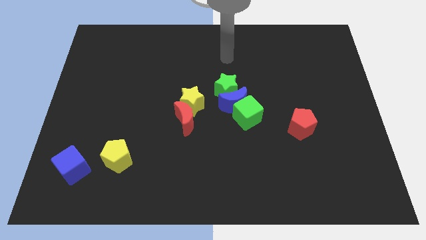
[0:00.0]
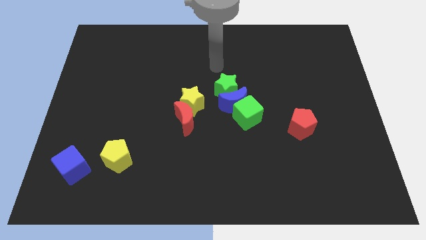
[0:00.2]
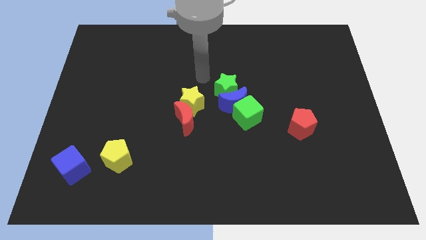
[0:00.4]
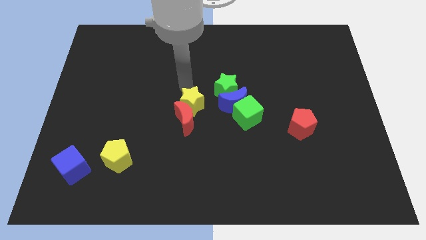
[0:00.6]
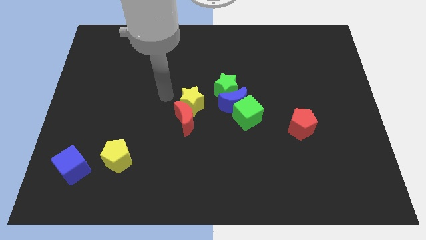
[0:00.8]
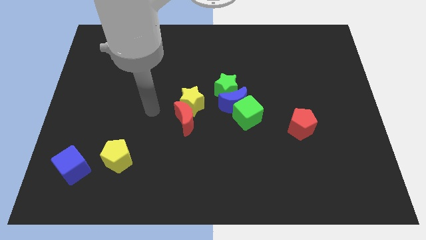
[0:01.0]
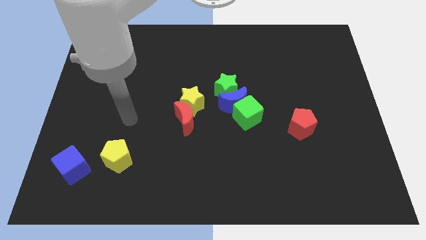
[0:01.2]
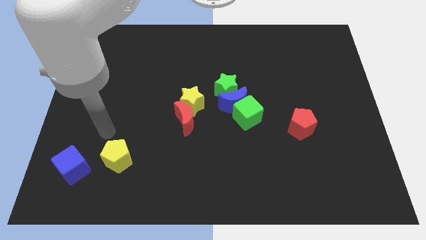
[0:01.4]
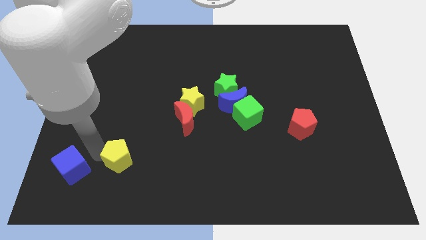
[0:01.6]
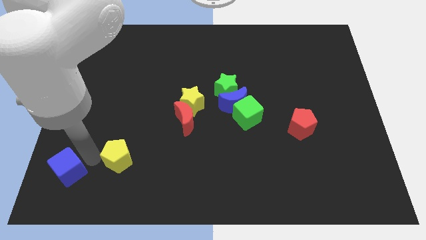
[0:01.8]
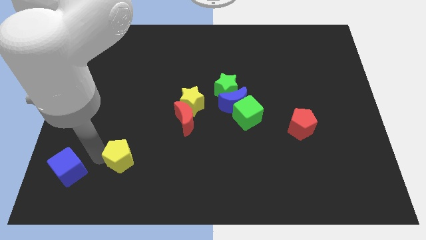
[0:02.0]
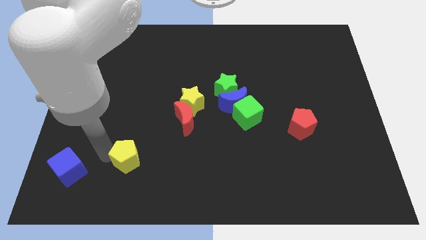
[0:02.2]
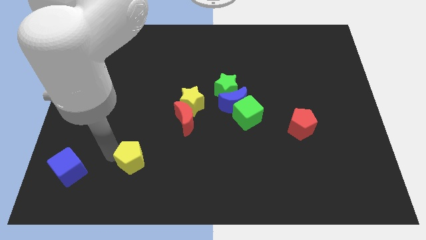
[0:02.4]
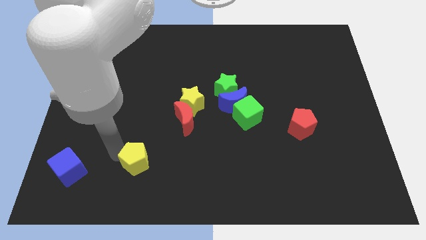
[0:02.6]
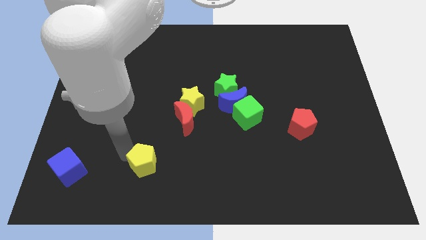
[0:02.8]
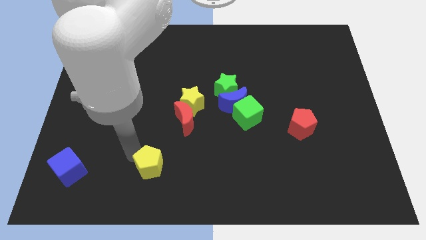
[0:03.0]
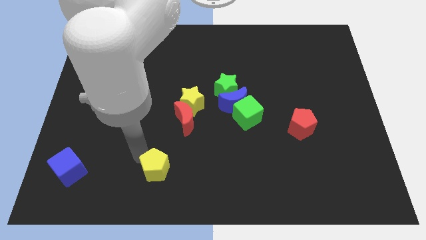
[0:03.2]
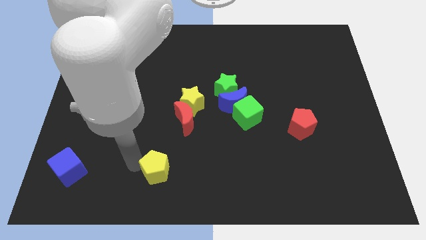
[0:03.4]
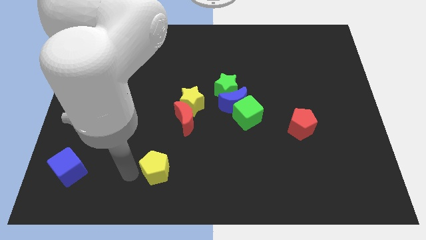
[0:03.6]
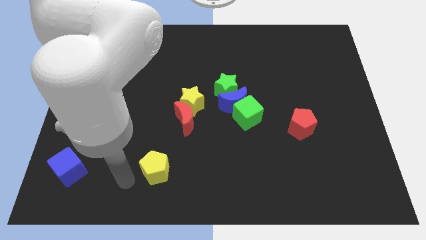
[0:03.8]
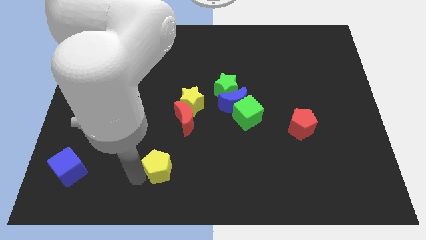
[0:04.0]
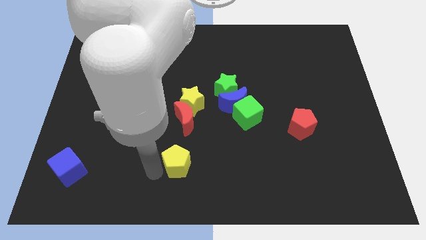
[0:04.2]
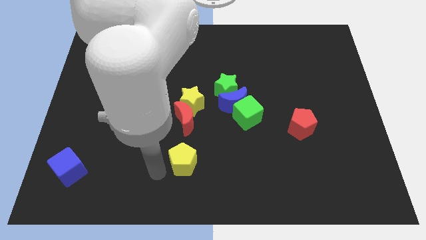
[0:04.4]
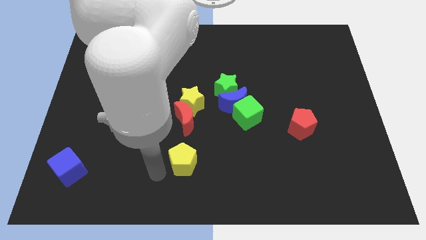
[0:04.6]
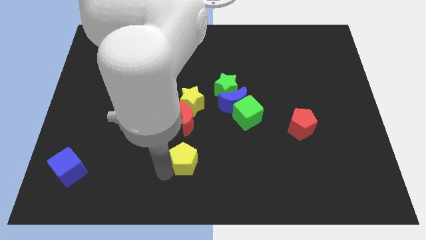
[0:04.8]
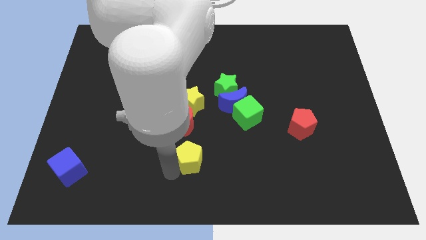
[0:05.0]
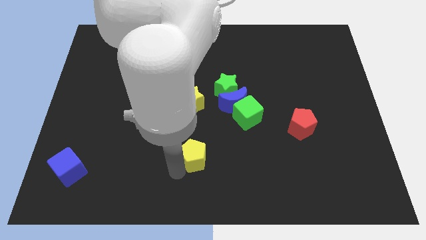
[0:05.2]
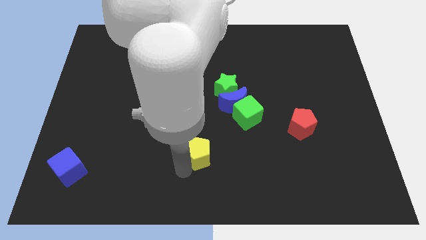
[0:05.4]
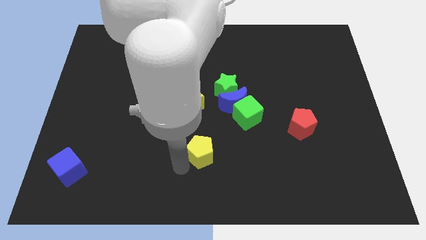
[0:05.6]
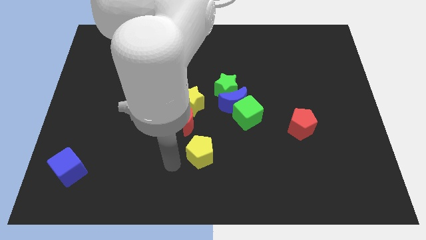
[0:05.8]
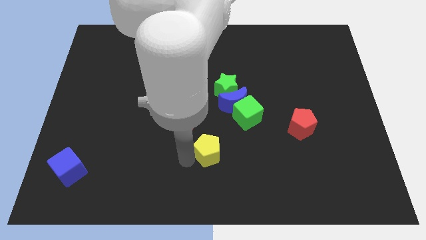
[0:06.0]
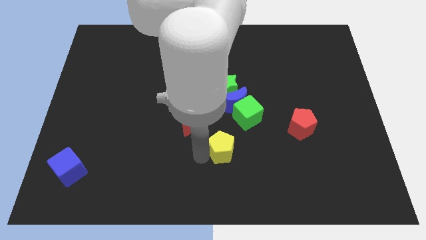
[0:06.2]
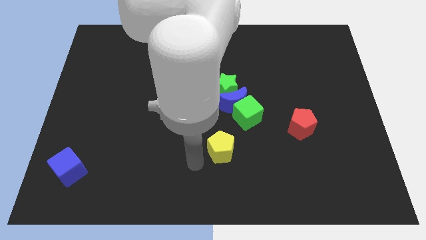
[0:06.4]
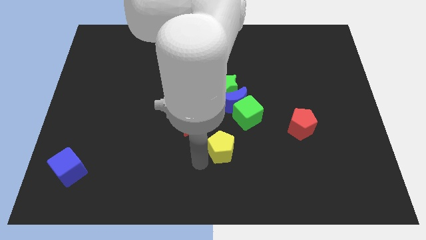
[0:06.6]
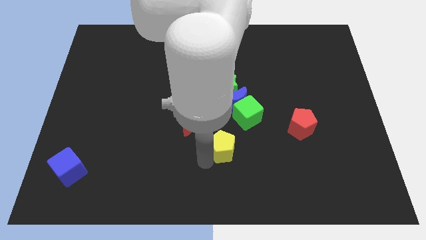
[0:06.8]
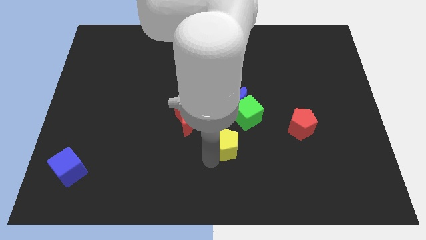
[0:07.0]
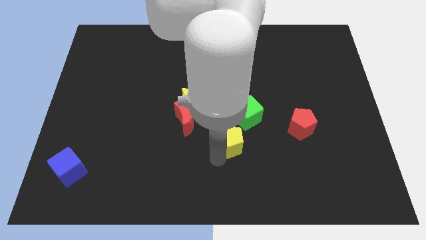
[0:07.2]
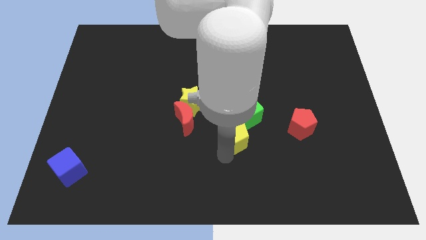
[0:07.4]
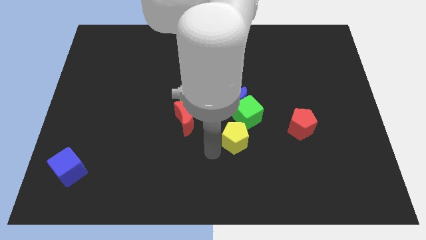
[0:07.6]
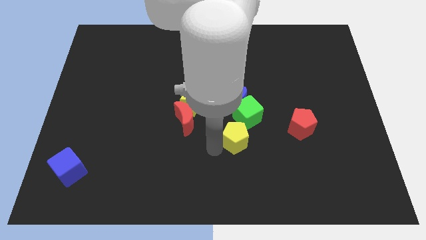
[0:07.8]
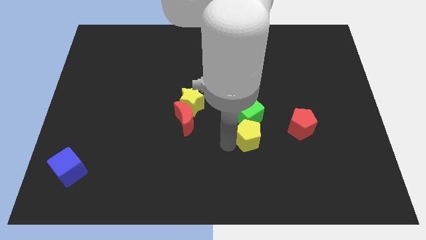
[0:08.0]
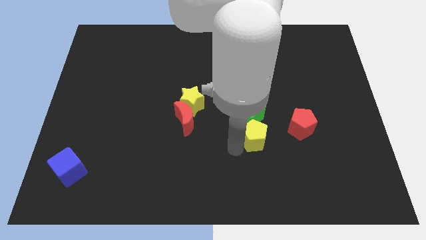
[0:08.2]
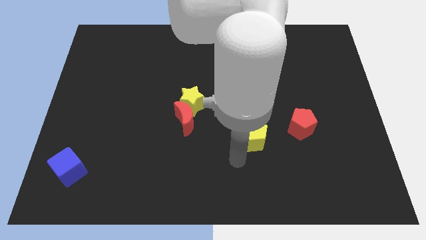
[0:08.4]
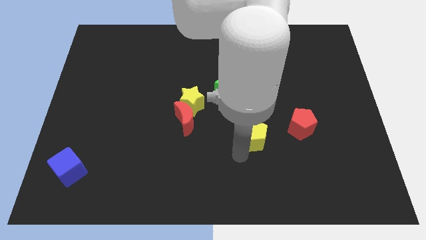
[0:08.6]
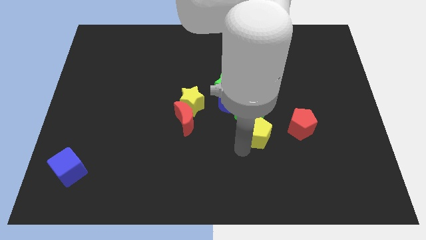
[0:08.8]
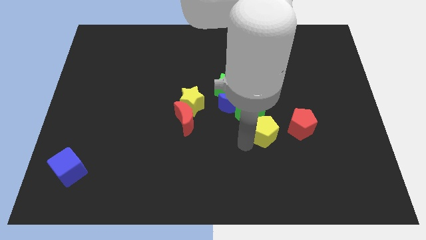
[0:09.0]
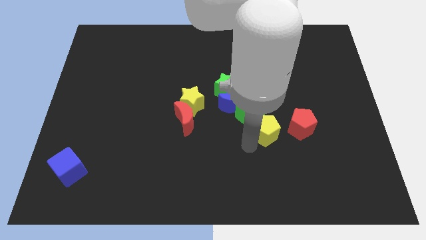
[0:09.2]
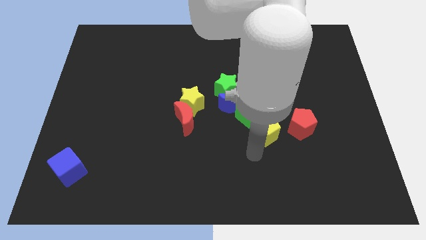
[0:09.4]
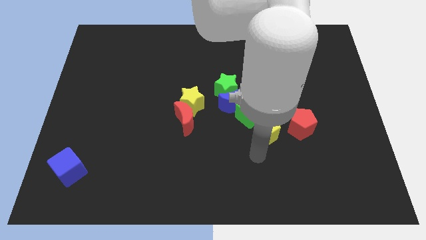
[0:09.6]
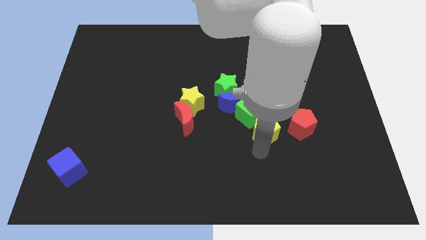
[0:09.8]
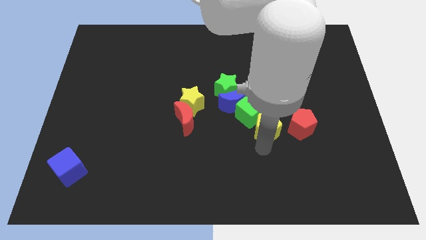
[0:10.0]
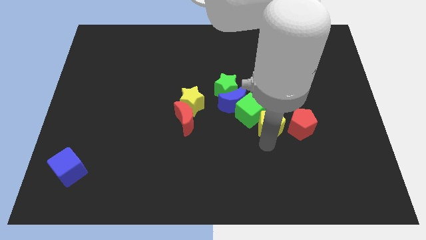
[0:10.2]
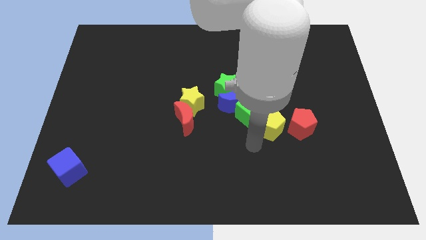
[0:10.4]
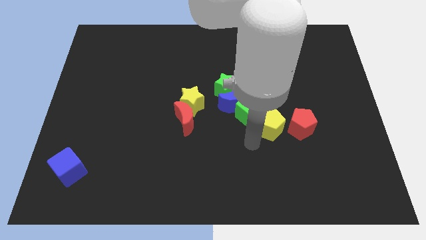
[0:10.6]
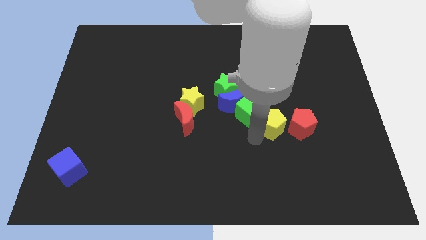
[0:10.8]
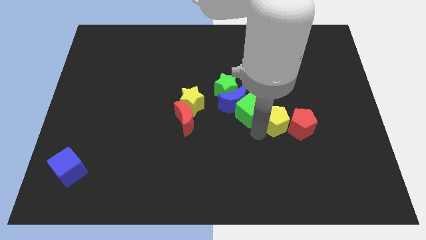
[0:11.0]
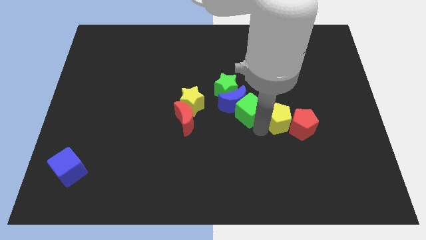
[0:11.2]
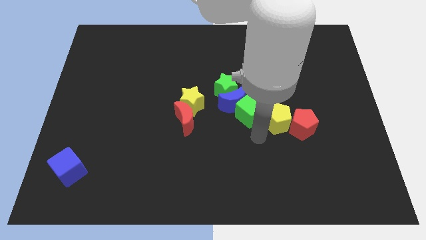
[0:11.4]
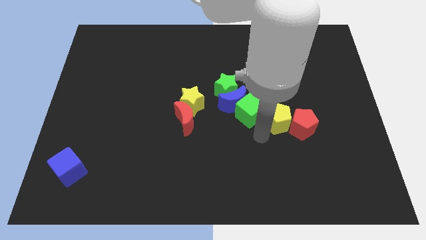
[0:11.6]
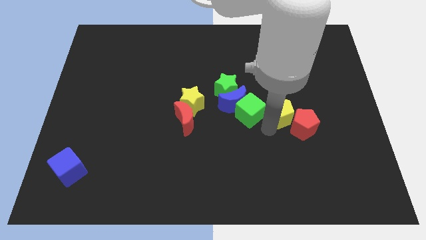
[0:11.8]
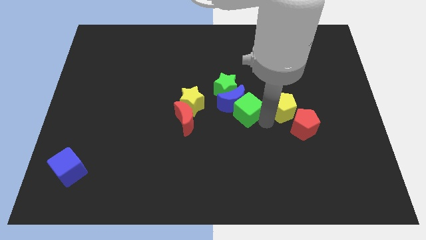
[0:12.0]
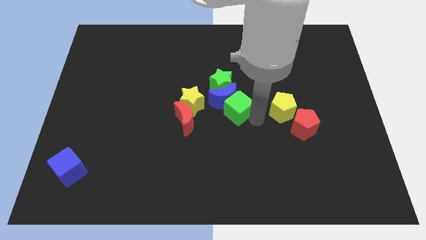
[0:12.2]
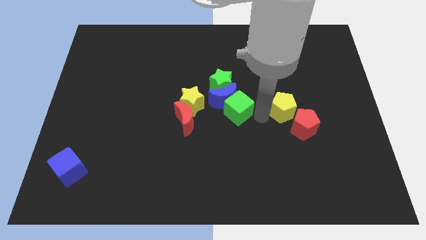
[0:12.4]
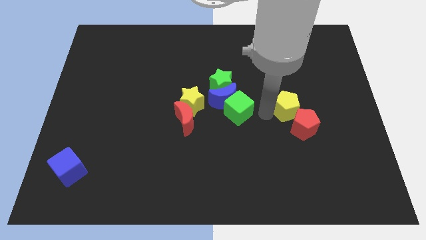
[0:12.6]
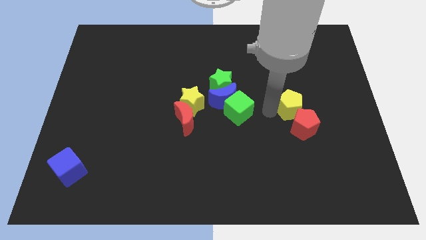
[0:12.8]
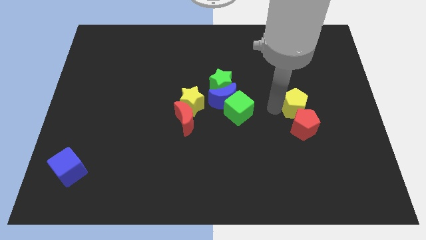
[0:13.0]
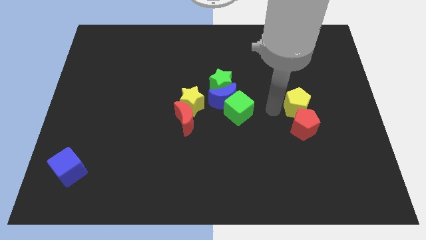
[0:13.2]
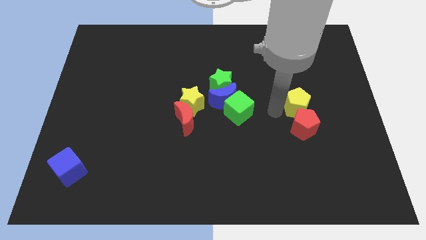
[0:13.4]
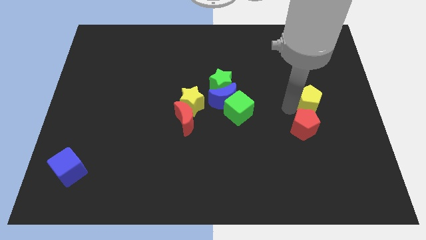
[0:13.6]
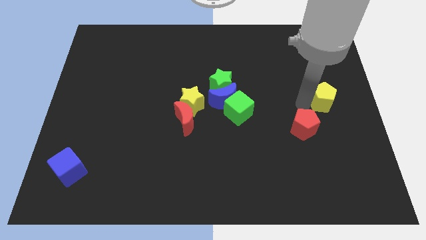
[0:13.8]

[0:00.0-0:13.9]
slide the yellow pentagon to the right side of the board

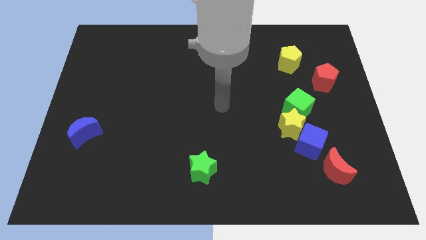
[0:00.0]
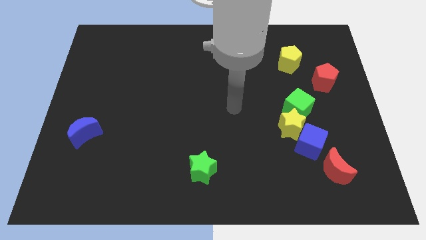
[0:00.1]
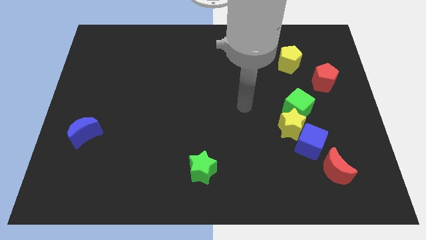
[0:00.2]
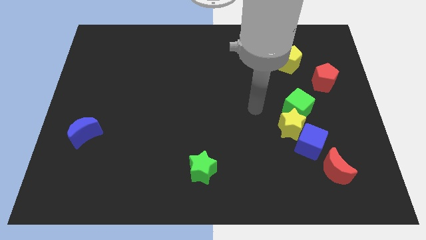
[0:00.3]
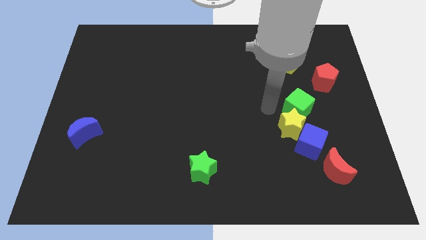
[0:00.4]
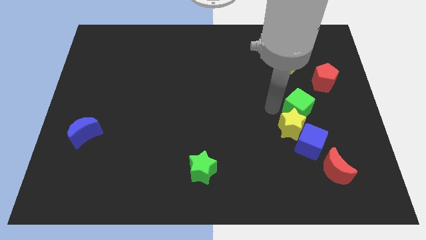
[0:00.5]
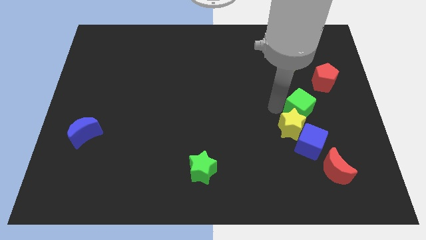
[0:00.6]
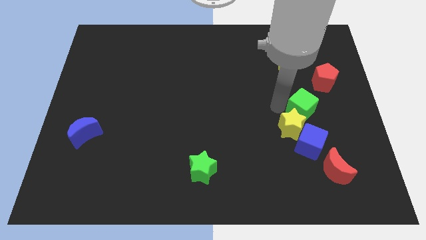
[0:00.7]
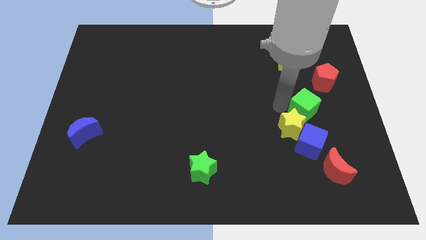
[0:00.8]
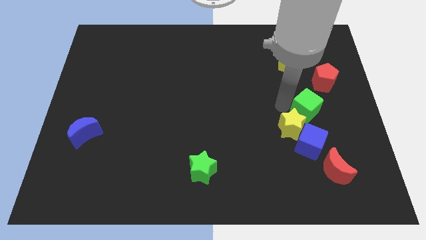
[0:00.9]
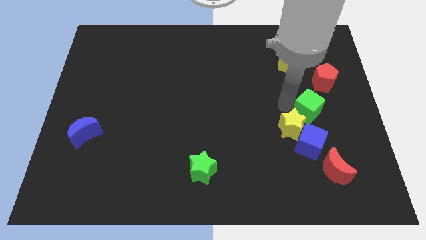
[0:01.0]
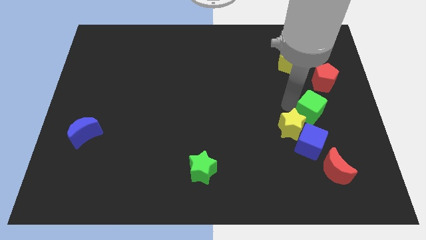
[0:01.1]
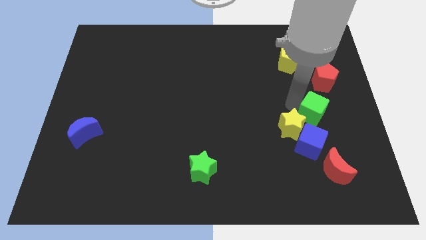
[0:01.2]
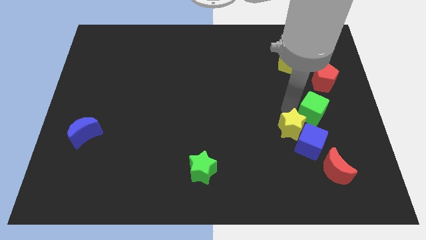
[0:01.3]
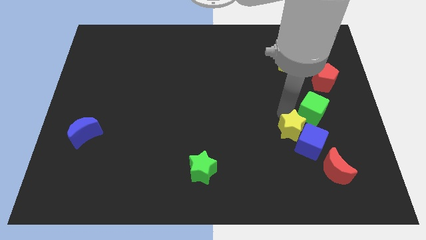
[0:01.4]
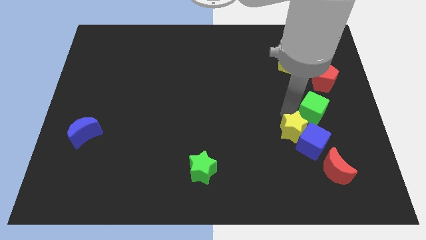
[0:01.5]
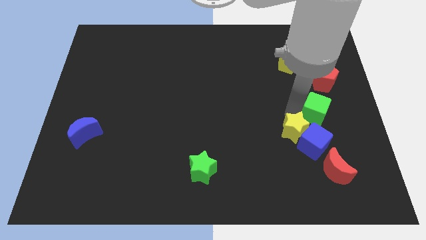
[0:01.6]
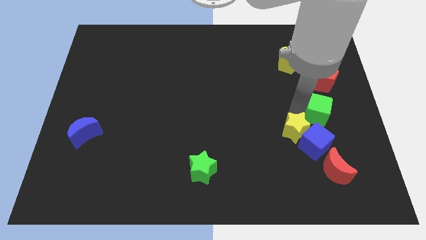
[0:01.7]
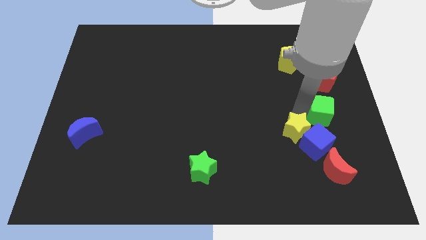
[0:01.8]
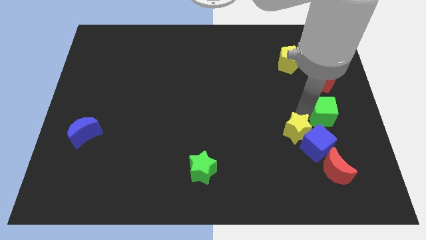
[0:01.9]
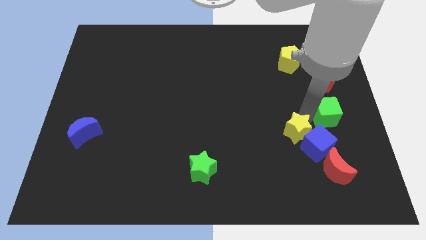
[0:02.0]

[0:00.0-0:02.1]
put the green cube to the right side
